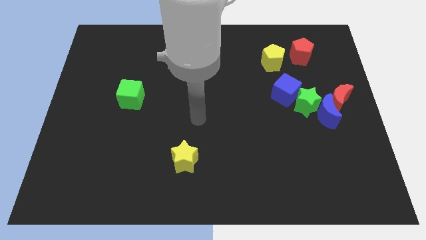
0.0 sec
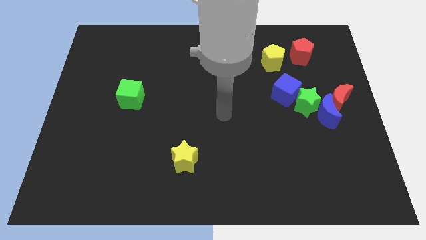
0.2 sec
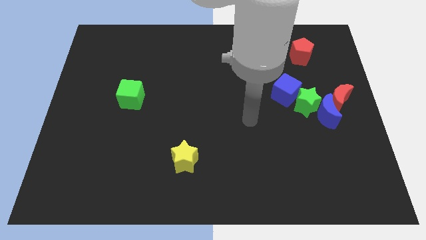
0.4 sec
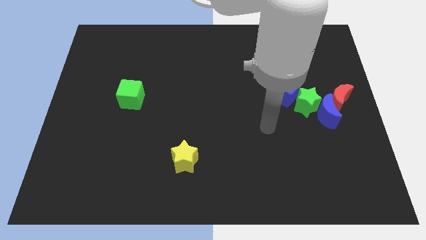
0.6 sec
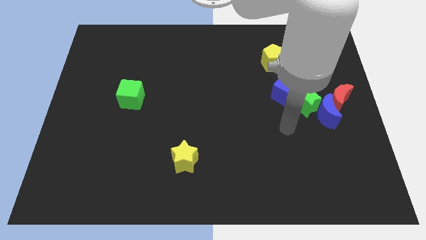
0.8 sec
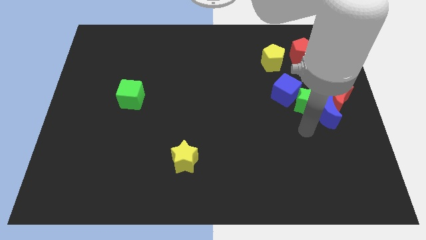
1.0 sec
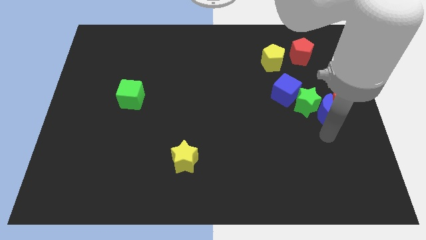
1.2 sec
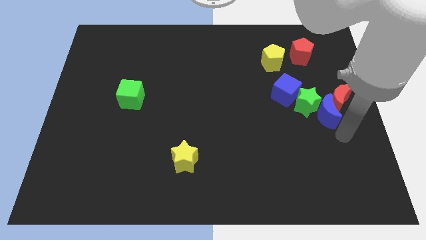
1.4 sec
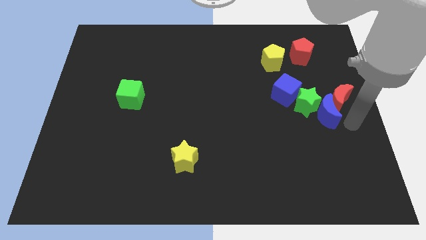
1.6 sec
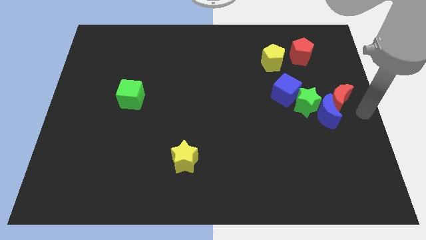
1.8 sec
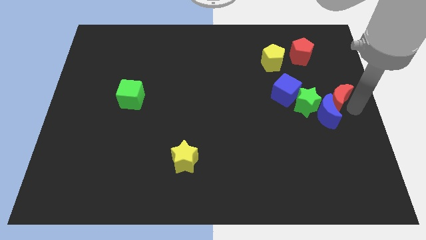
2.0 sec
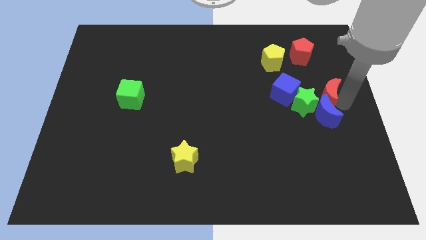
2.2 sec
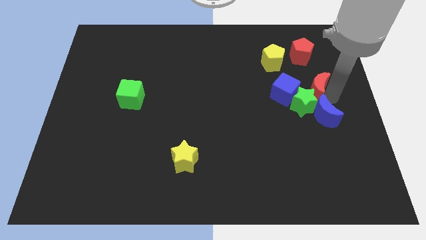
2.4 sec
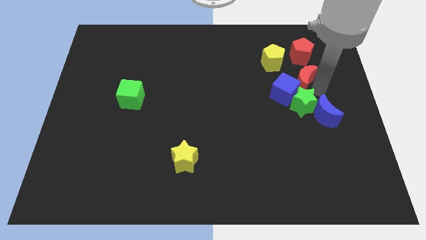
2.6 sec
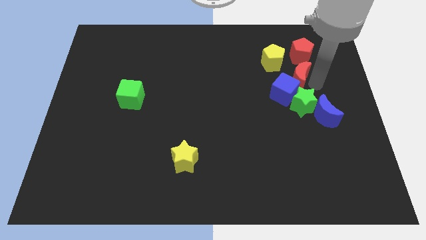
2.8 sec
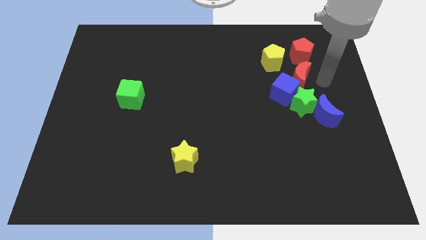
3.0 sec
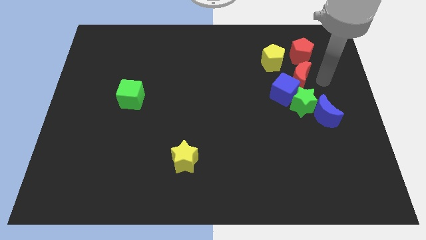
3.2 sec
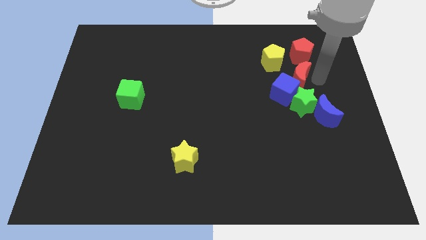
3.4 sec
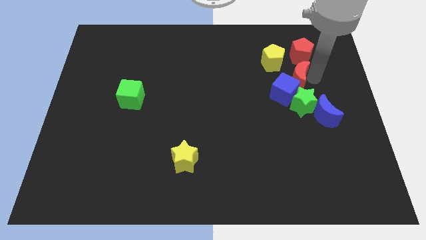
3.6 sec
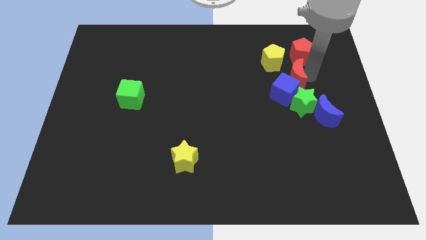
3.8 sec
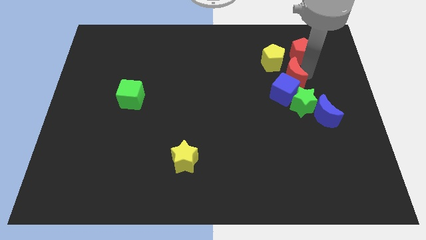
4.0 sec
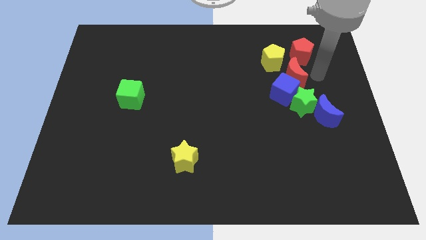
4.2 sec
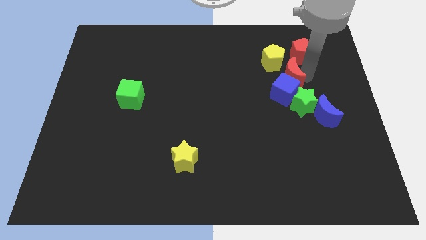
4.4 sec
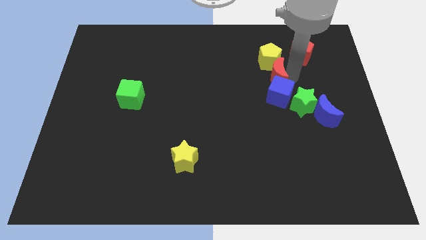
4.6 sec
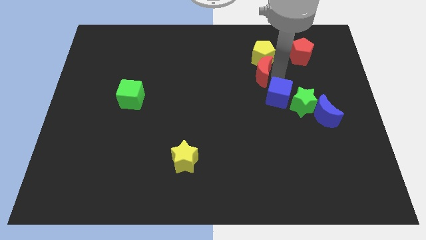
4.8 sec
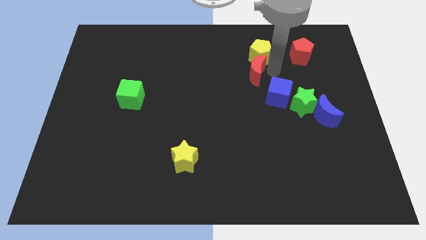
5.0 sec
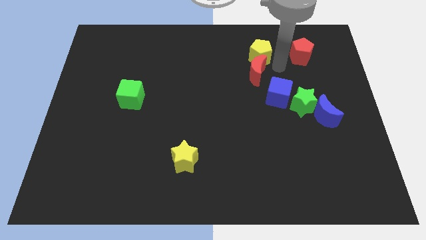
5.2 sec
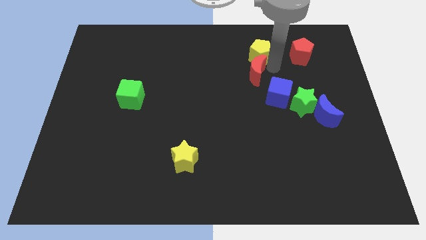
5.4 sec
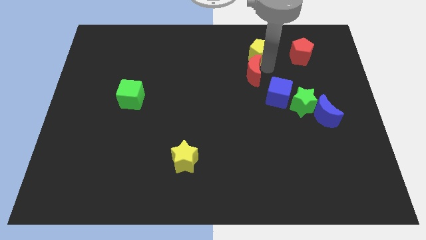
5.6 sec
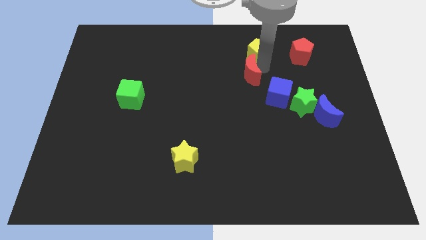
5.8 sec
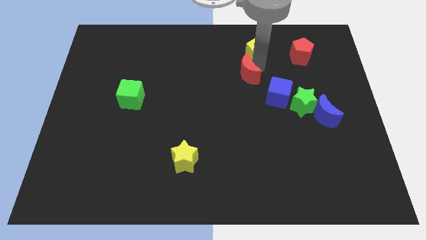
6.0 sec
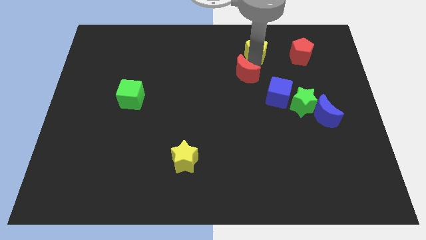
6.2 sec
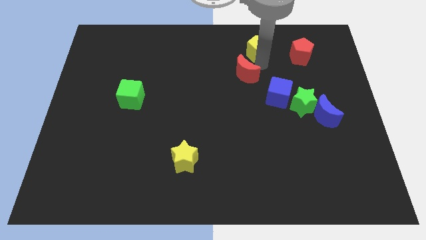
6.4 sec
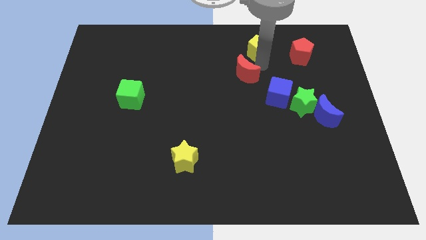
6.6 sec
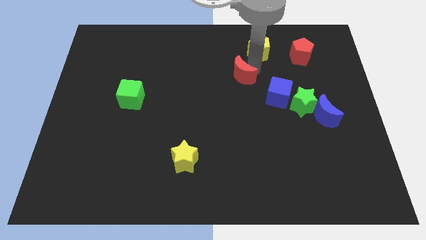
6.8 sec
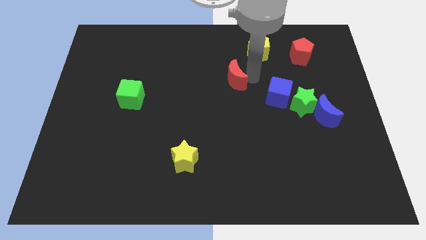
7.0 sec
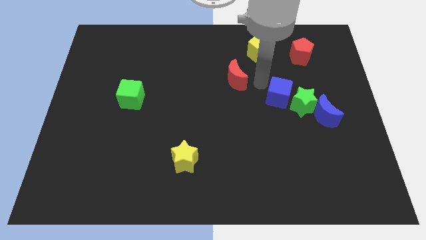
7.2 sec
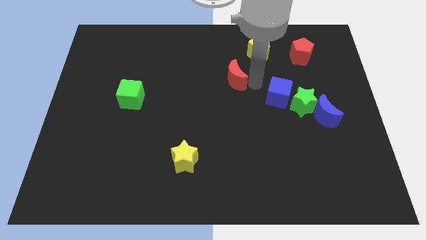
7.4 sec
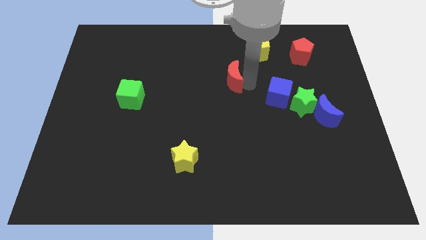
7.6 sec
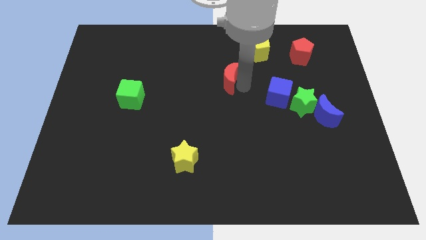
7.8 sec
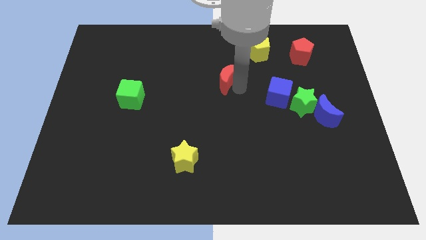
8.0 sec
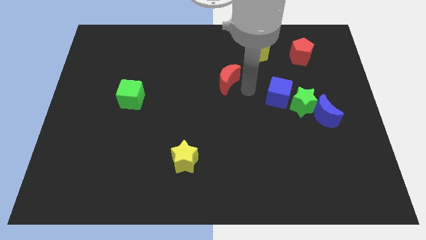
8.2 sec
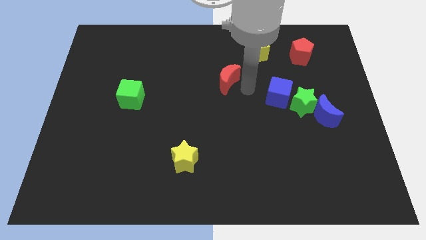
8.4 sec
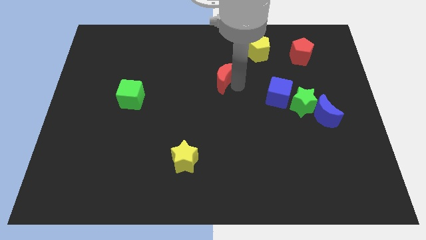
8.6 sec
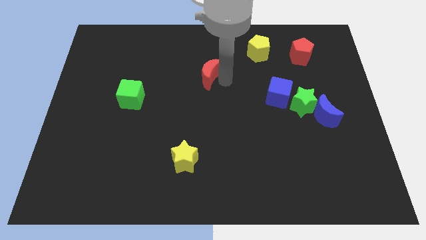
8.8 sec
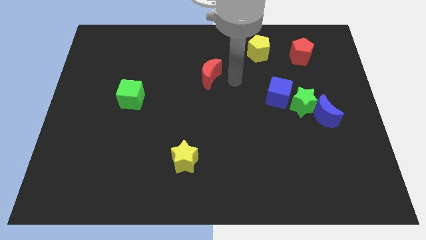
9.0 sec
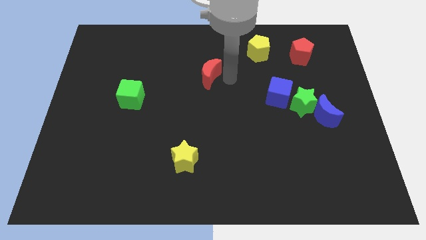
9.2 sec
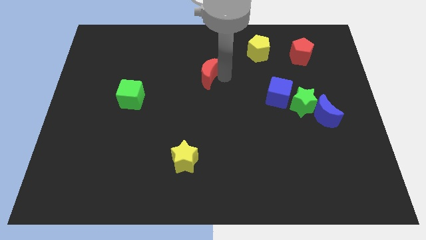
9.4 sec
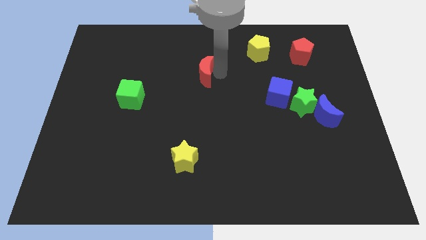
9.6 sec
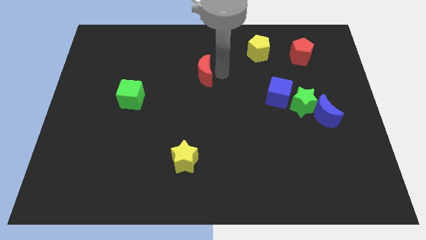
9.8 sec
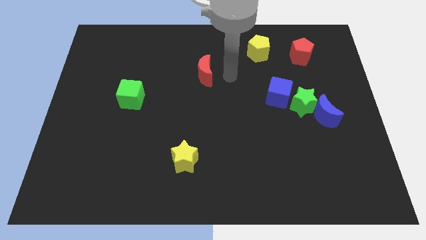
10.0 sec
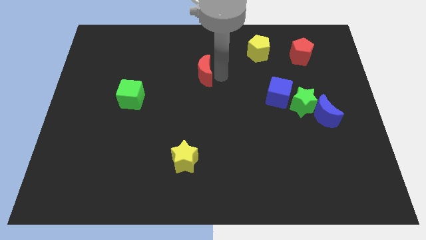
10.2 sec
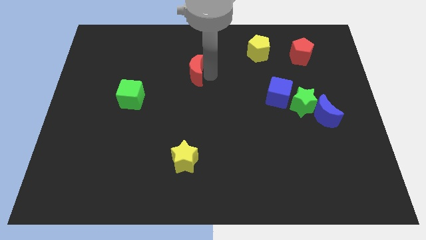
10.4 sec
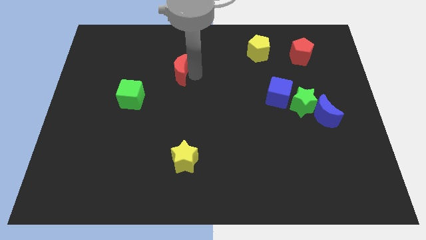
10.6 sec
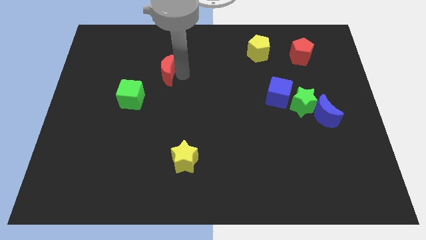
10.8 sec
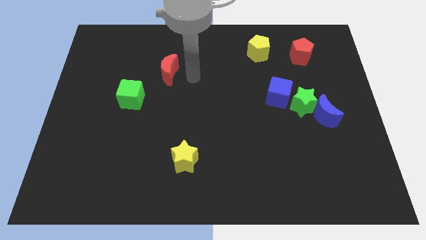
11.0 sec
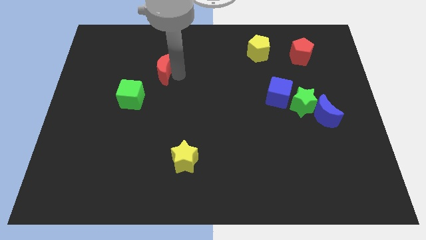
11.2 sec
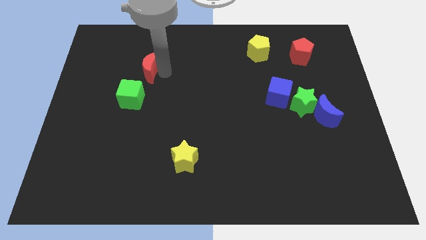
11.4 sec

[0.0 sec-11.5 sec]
slide the red moon above the green cube
